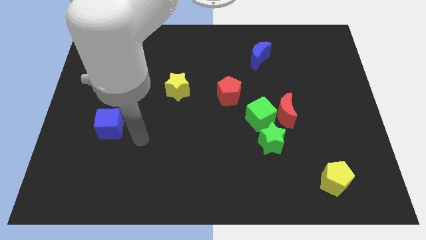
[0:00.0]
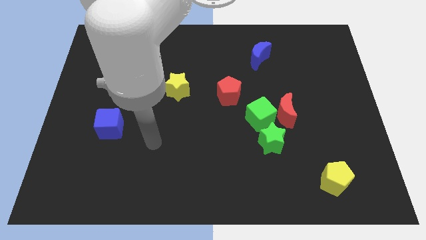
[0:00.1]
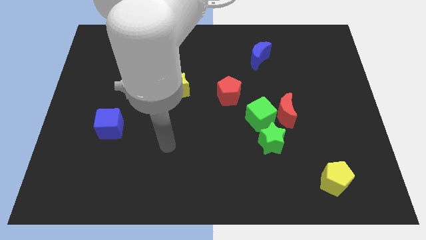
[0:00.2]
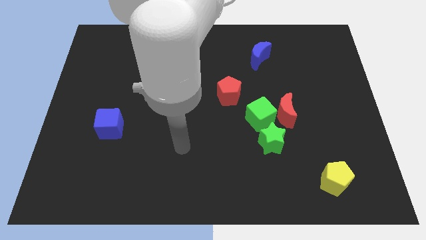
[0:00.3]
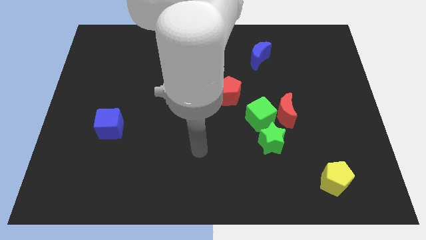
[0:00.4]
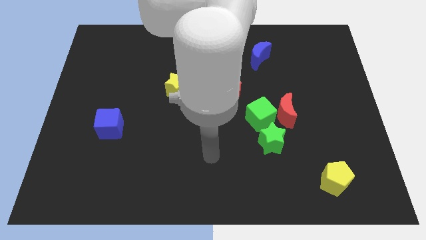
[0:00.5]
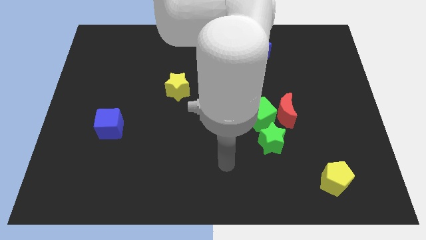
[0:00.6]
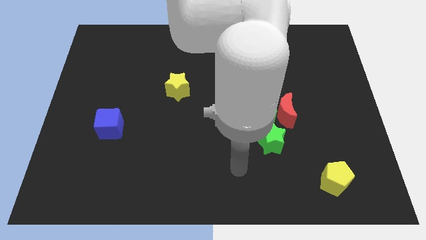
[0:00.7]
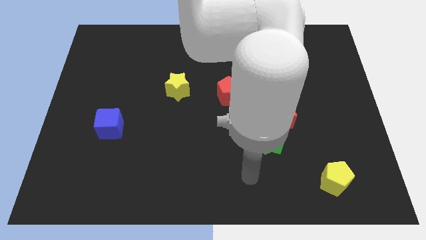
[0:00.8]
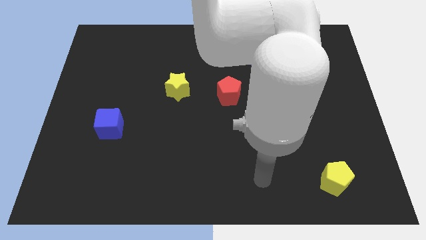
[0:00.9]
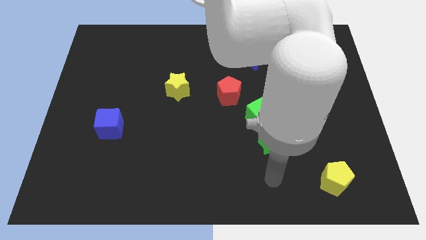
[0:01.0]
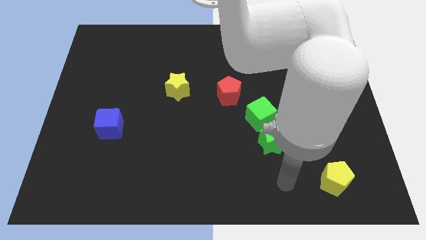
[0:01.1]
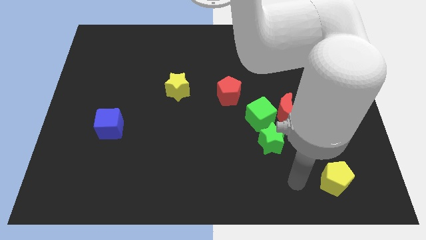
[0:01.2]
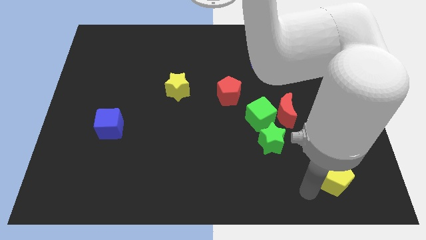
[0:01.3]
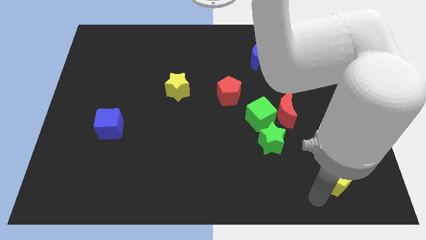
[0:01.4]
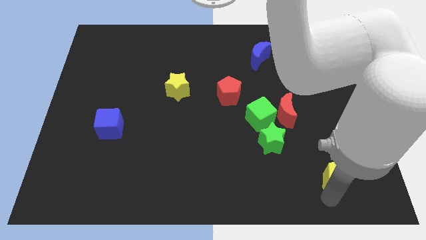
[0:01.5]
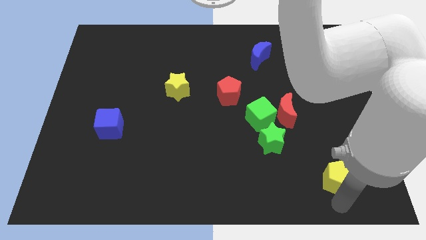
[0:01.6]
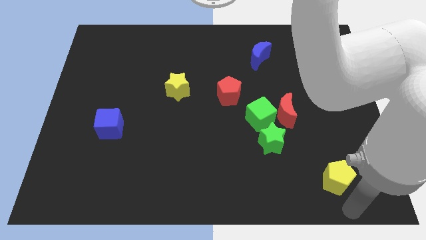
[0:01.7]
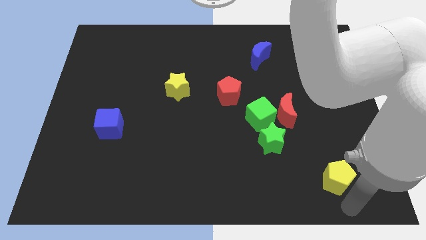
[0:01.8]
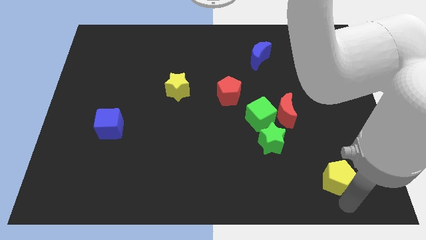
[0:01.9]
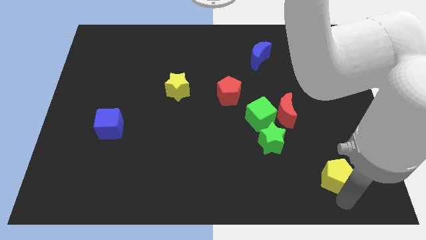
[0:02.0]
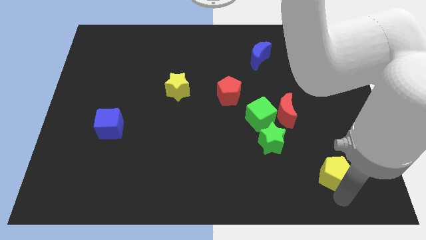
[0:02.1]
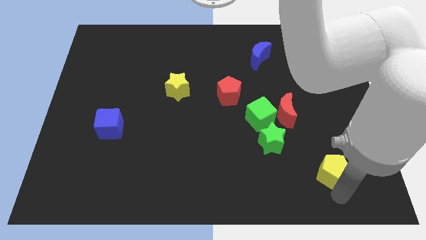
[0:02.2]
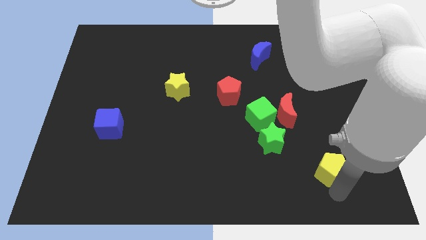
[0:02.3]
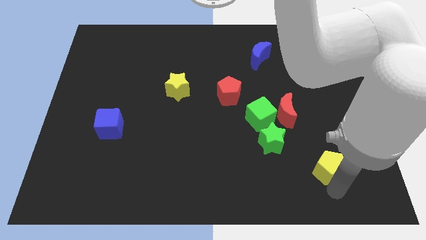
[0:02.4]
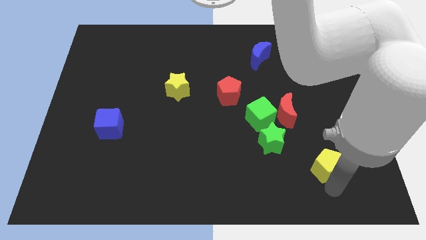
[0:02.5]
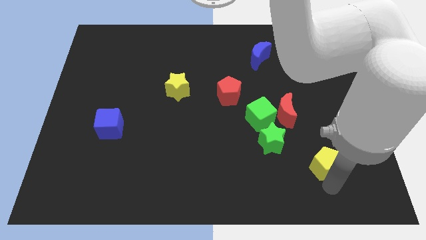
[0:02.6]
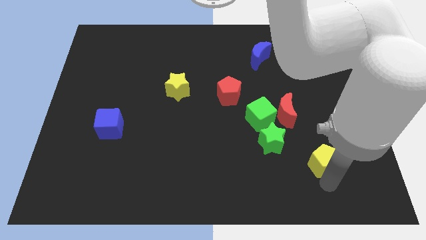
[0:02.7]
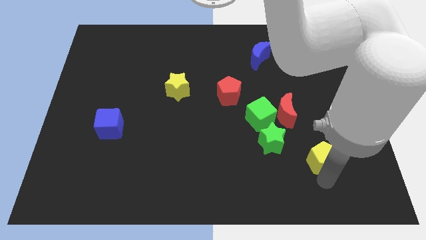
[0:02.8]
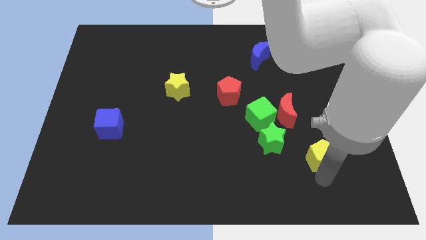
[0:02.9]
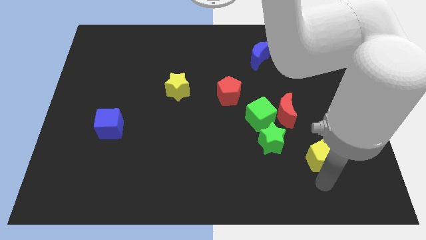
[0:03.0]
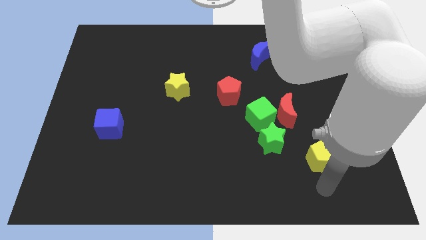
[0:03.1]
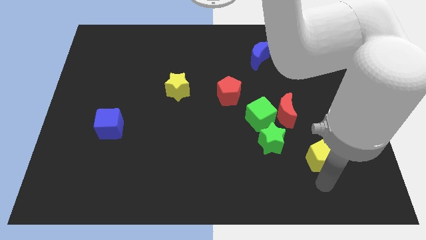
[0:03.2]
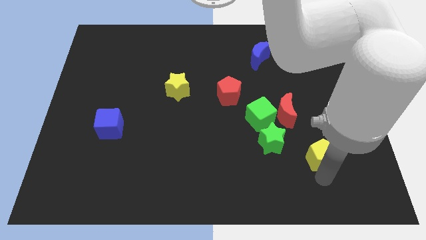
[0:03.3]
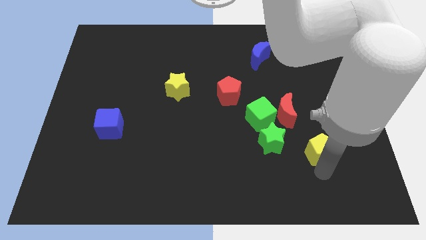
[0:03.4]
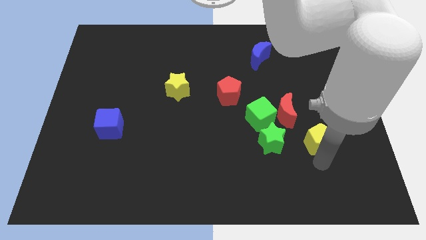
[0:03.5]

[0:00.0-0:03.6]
move the yellow pentagon slightly upwards

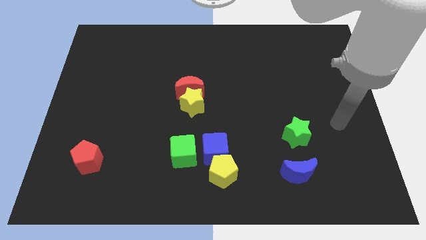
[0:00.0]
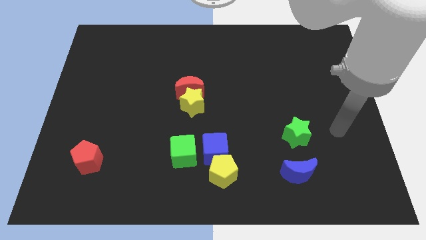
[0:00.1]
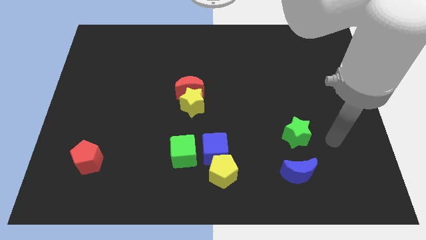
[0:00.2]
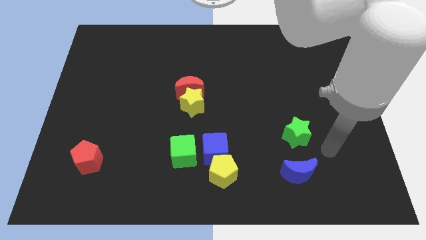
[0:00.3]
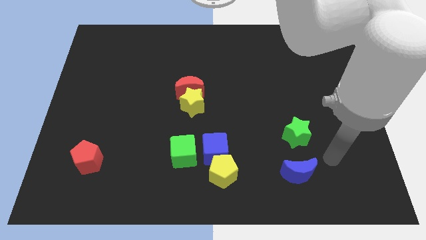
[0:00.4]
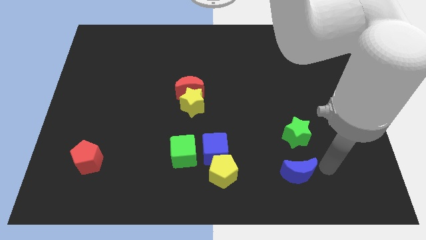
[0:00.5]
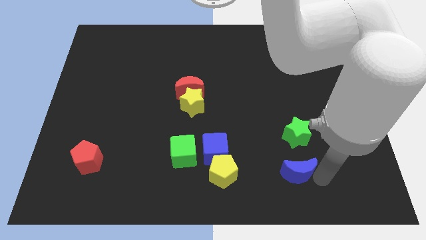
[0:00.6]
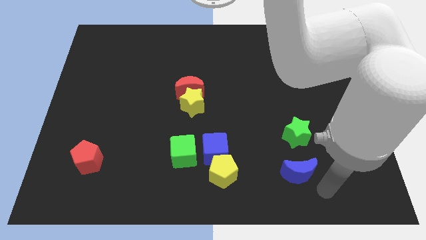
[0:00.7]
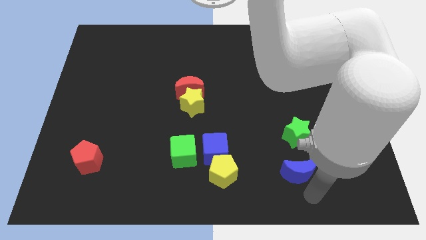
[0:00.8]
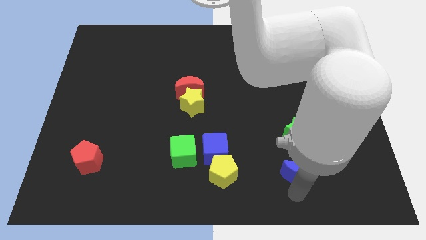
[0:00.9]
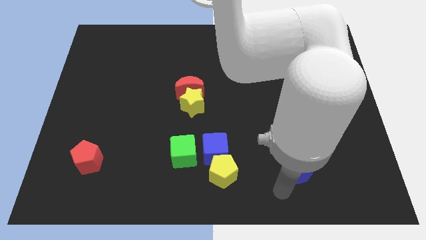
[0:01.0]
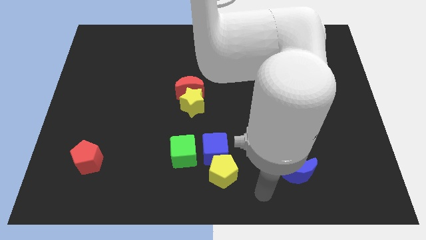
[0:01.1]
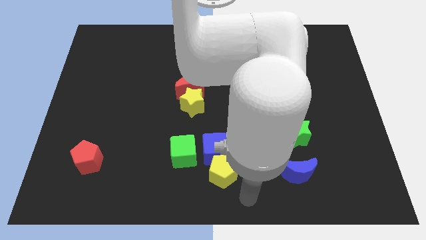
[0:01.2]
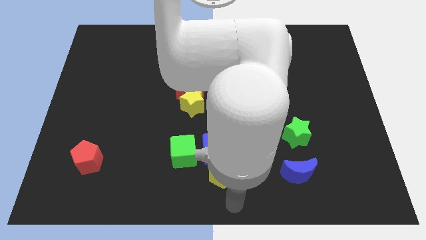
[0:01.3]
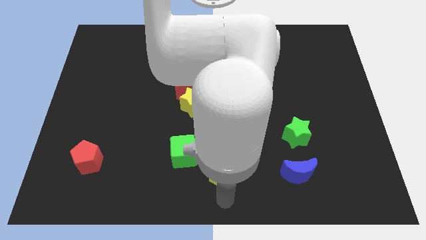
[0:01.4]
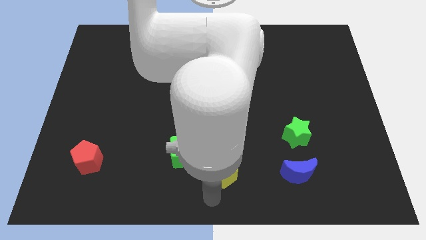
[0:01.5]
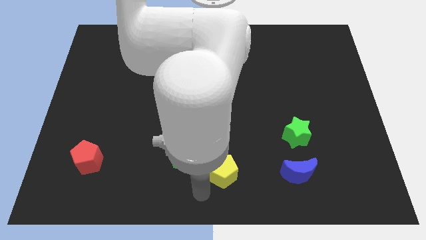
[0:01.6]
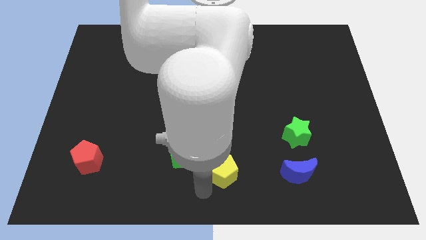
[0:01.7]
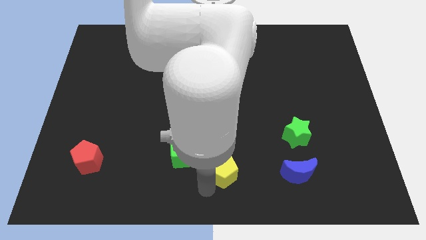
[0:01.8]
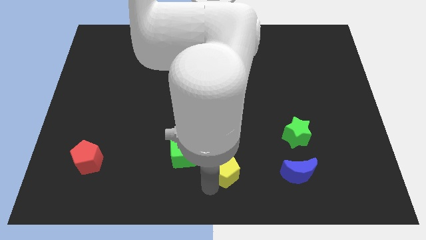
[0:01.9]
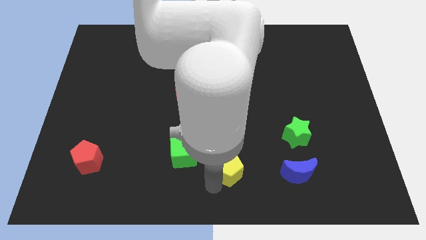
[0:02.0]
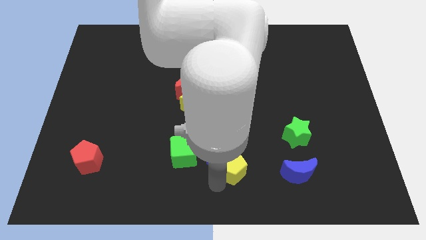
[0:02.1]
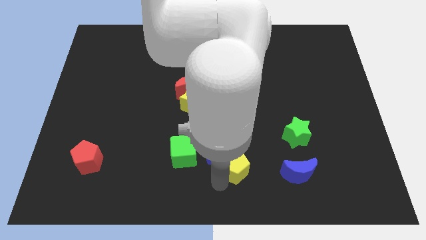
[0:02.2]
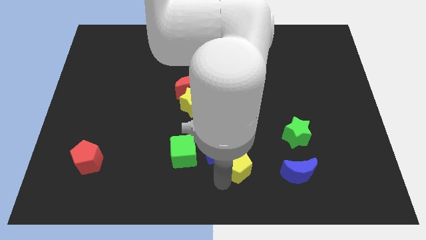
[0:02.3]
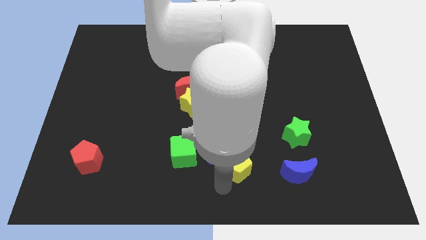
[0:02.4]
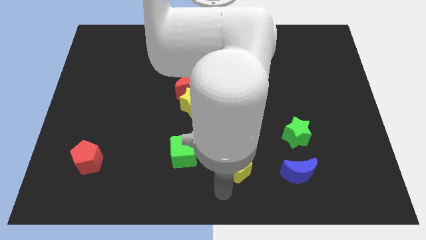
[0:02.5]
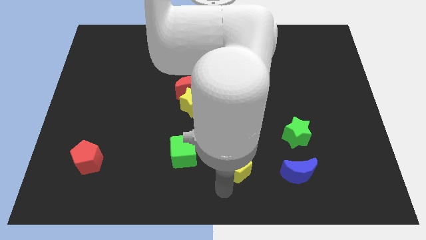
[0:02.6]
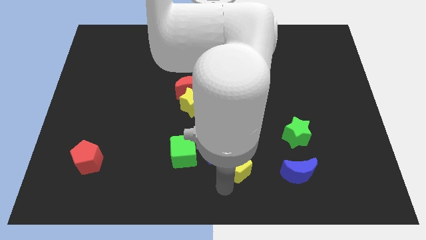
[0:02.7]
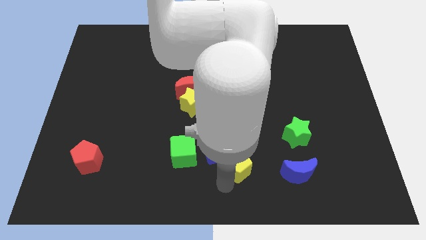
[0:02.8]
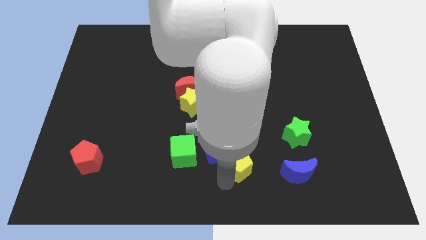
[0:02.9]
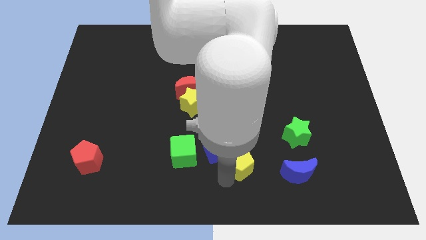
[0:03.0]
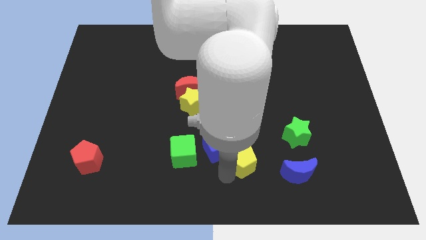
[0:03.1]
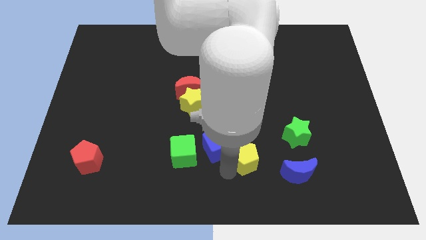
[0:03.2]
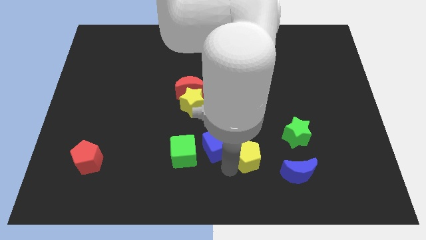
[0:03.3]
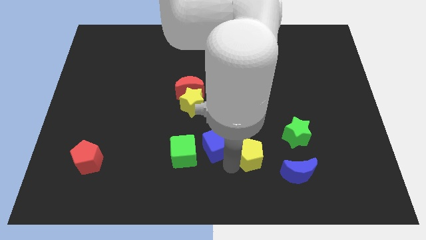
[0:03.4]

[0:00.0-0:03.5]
move the yellow pentagon somewhat upwards and then to the right

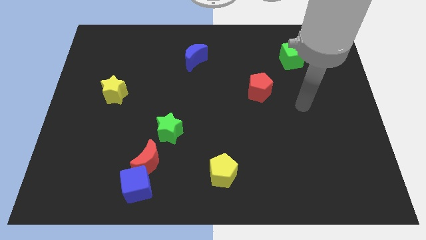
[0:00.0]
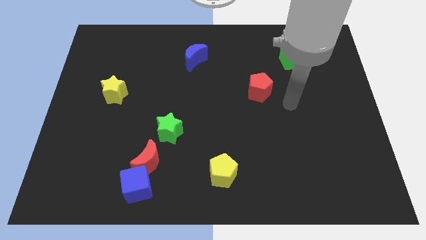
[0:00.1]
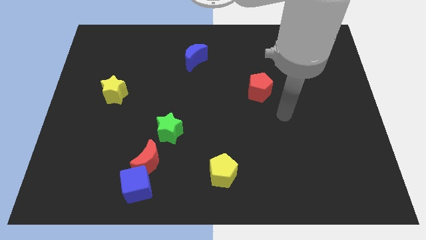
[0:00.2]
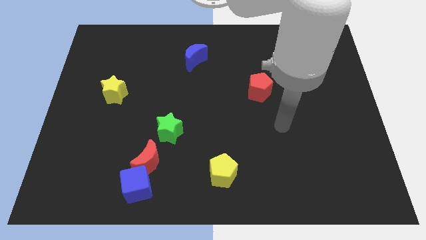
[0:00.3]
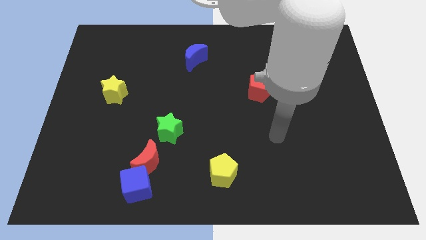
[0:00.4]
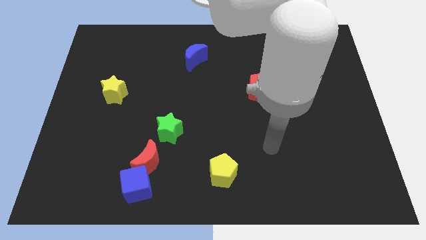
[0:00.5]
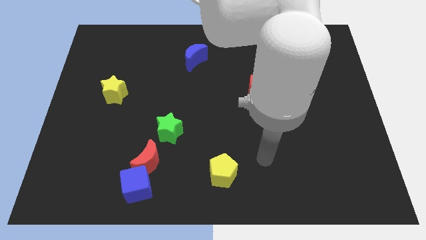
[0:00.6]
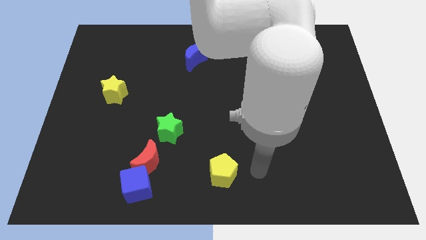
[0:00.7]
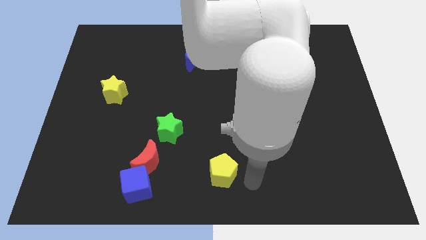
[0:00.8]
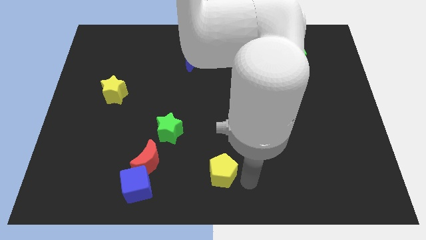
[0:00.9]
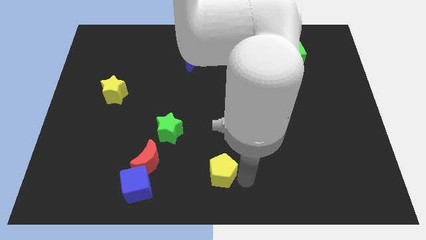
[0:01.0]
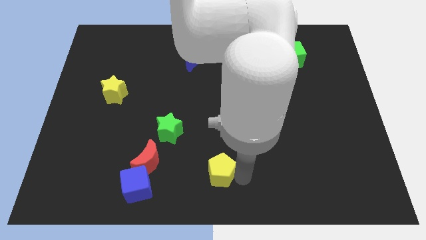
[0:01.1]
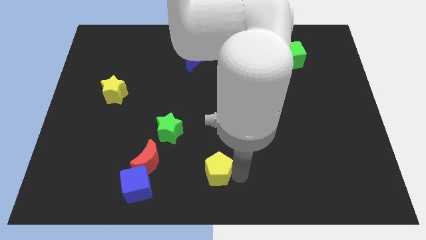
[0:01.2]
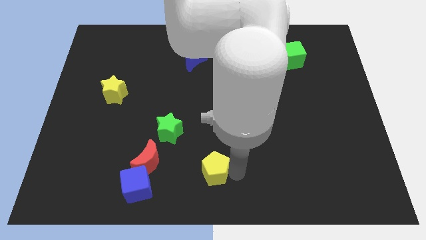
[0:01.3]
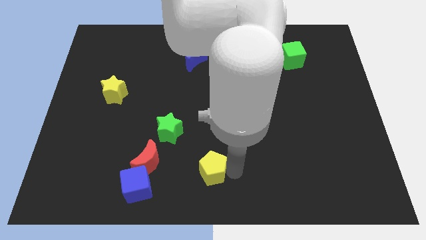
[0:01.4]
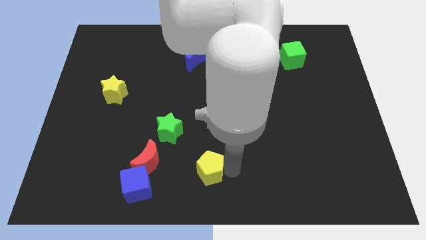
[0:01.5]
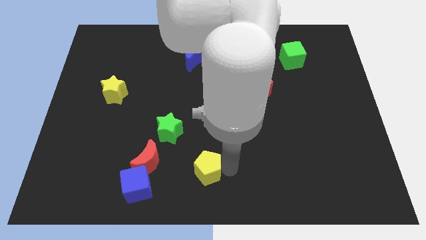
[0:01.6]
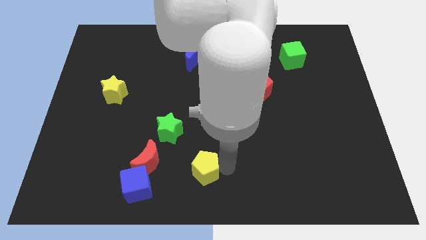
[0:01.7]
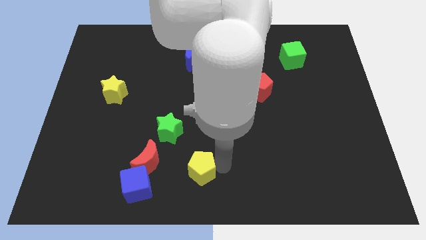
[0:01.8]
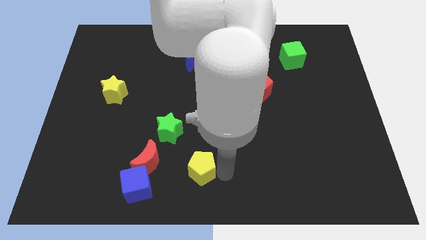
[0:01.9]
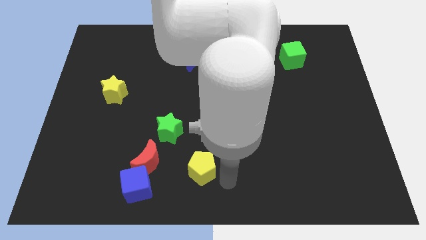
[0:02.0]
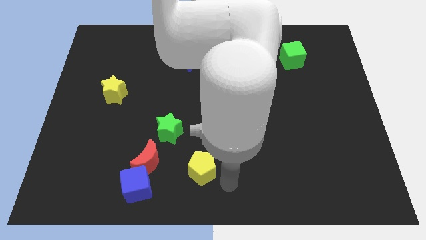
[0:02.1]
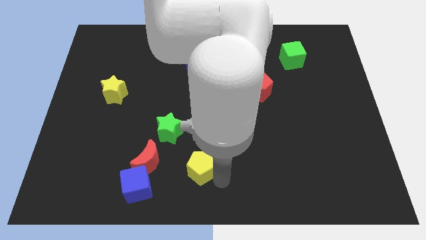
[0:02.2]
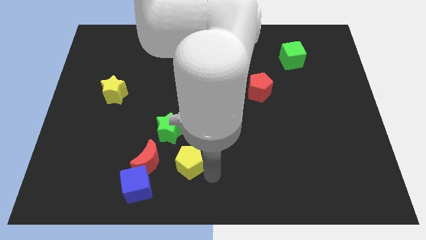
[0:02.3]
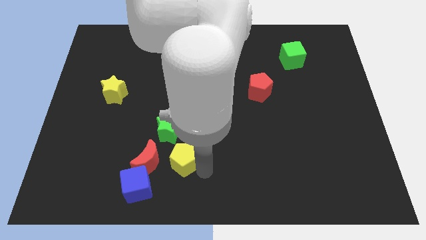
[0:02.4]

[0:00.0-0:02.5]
move the yellow pentagon a little bit upwards and left diagonally
